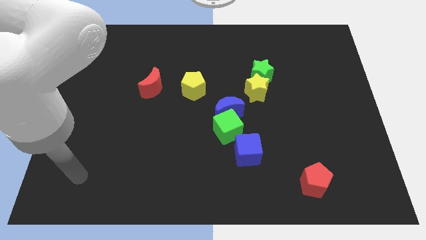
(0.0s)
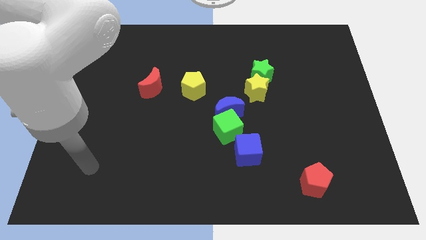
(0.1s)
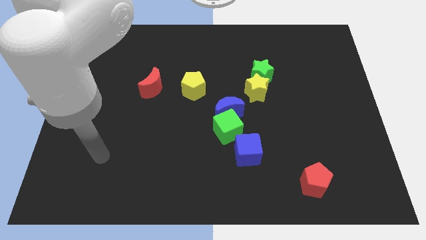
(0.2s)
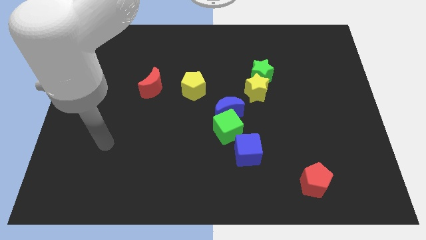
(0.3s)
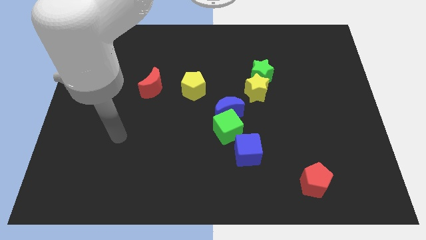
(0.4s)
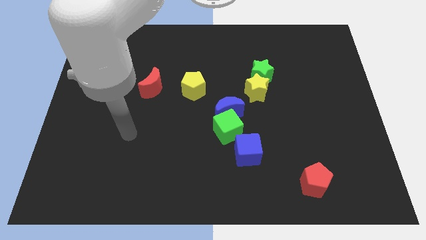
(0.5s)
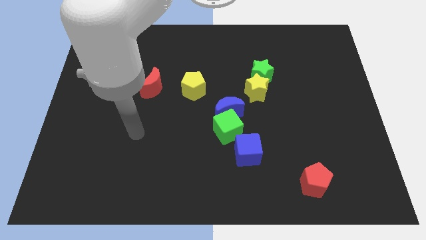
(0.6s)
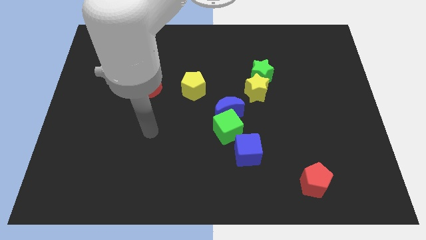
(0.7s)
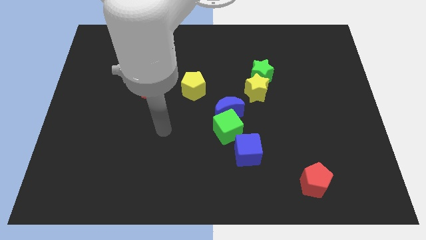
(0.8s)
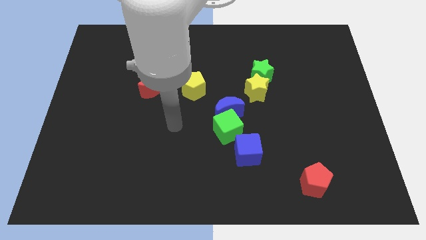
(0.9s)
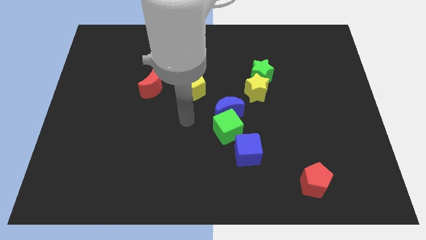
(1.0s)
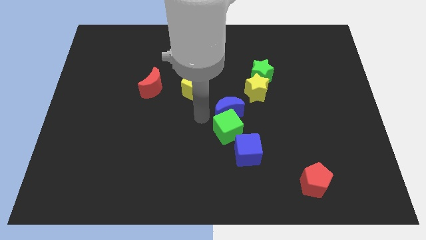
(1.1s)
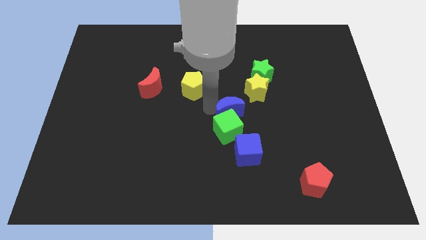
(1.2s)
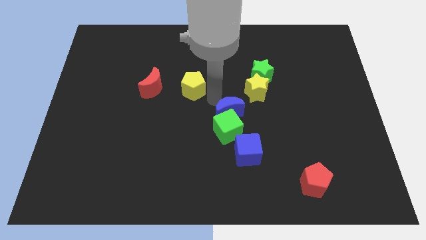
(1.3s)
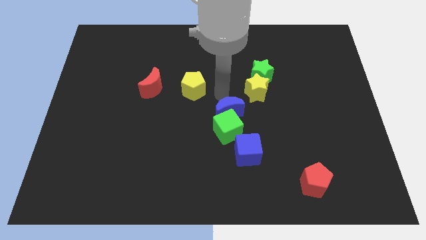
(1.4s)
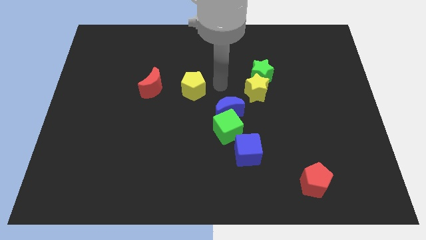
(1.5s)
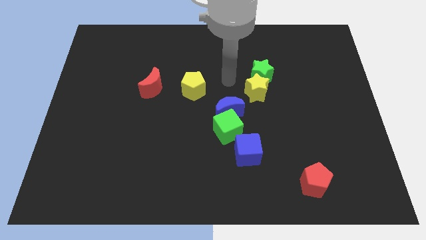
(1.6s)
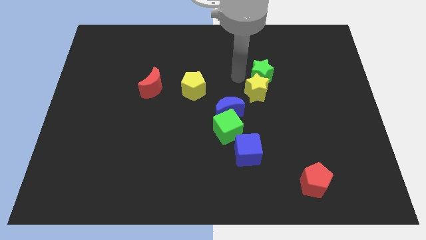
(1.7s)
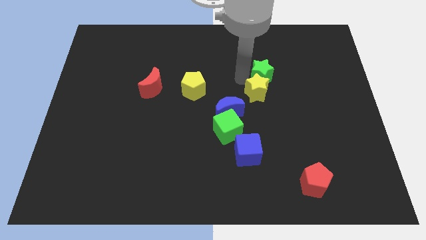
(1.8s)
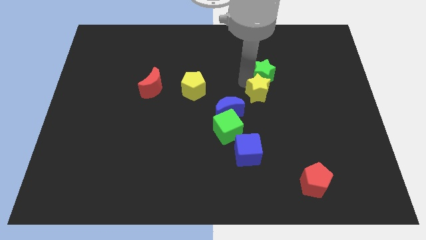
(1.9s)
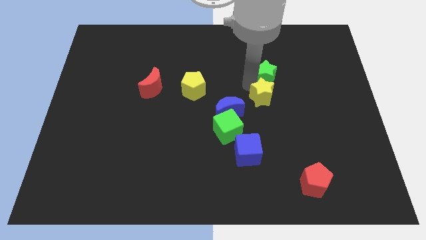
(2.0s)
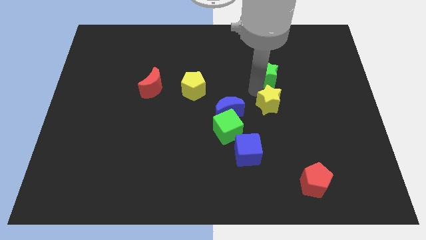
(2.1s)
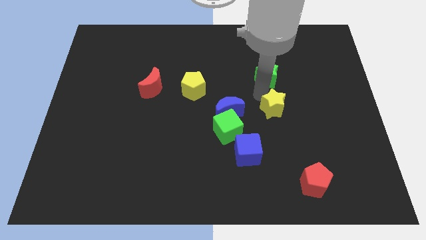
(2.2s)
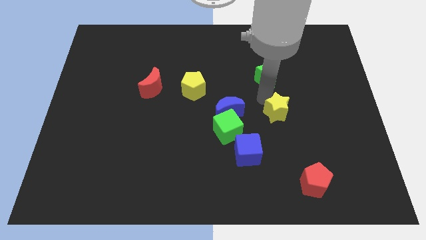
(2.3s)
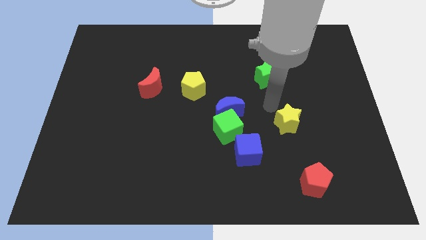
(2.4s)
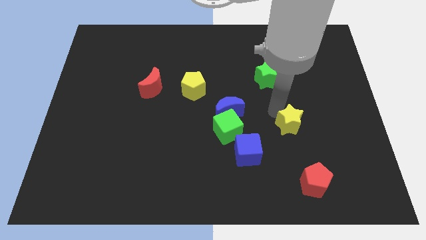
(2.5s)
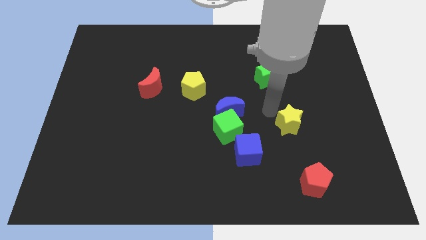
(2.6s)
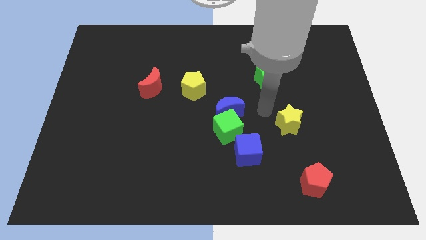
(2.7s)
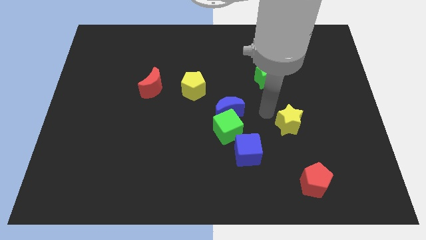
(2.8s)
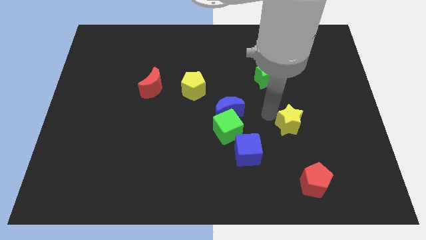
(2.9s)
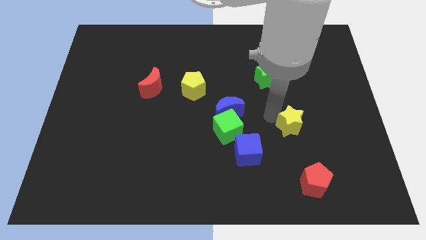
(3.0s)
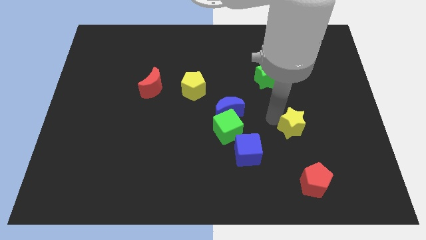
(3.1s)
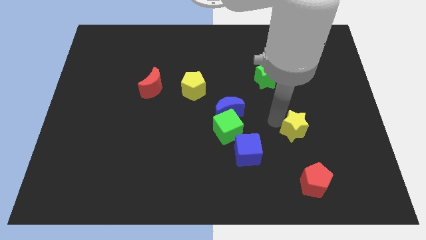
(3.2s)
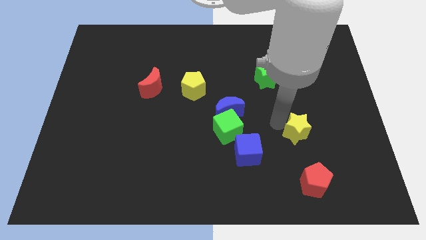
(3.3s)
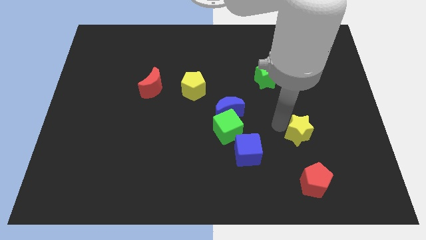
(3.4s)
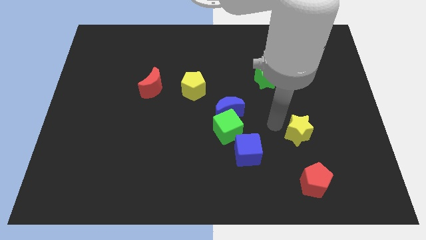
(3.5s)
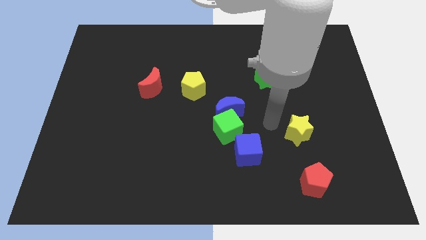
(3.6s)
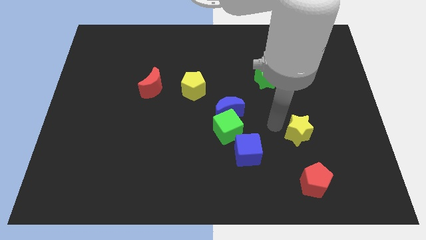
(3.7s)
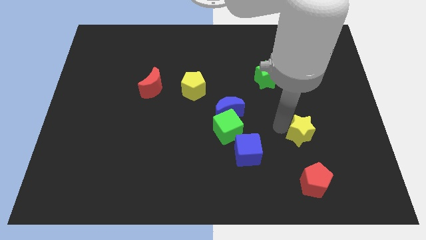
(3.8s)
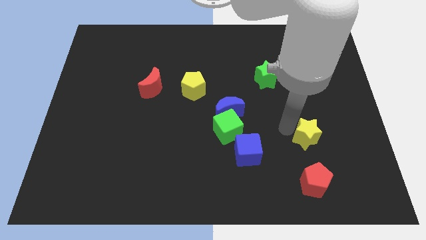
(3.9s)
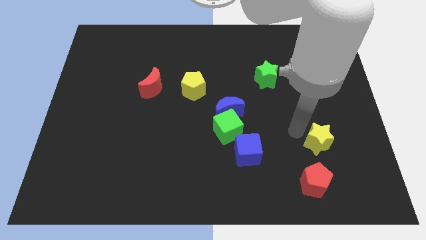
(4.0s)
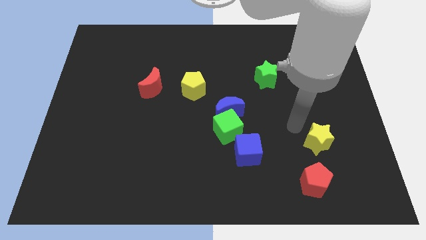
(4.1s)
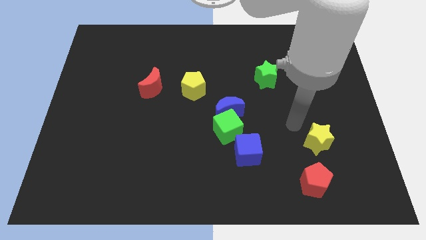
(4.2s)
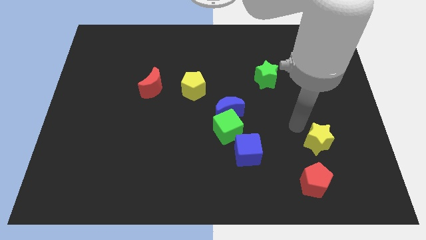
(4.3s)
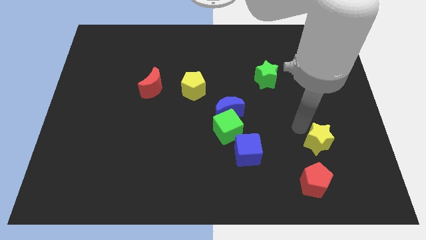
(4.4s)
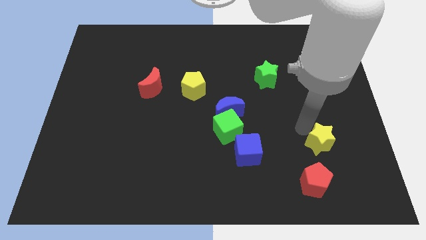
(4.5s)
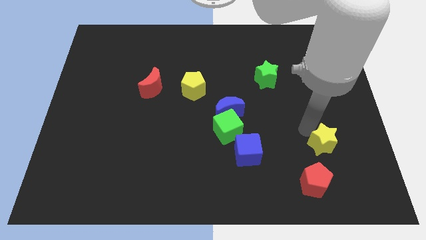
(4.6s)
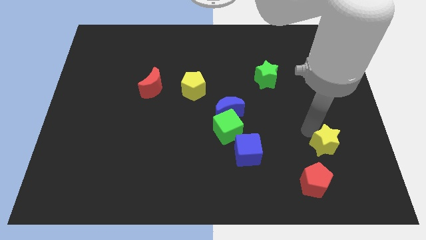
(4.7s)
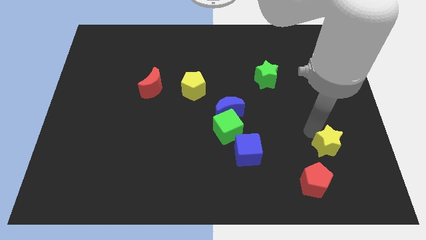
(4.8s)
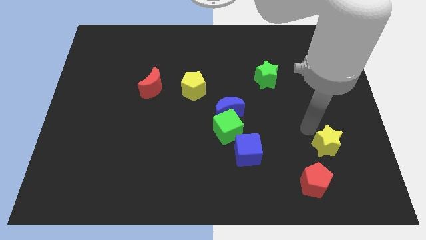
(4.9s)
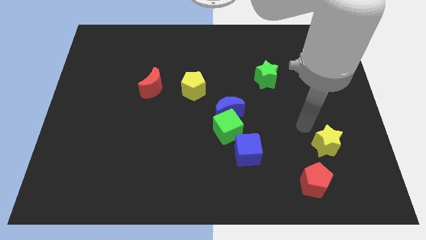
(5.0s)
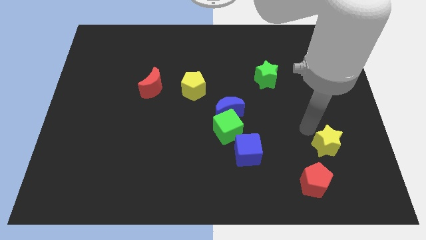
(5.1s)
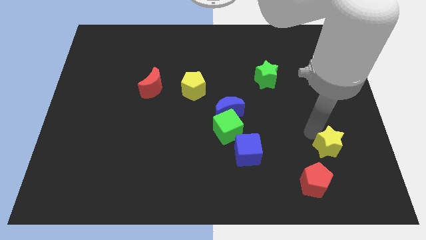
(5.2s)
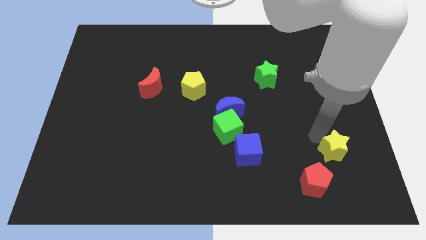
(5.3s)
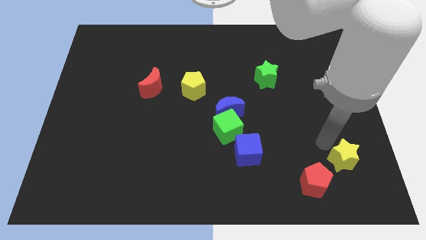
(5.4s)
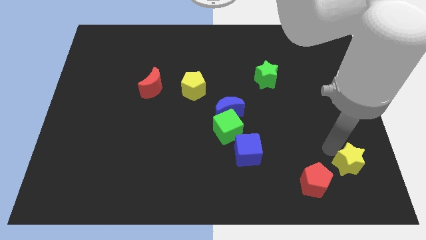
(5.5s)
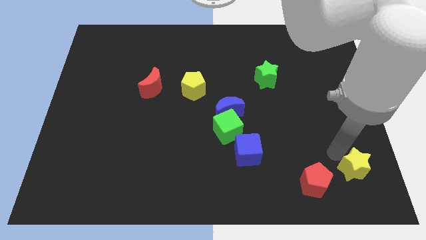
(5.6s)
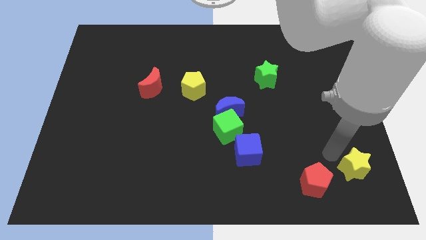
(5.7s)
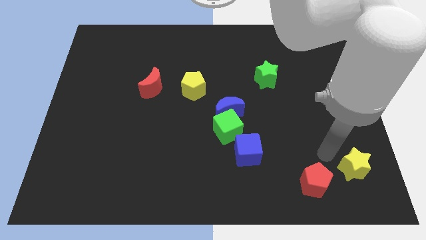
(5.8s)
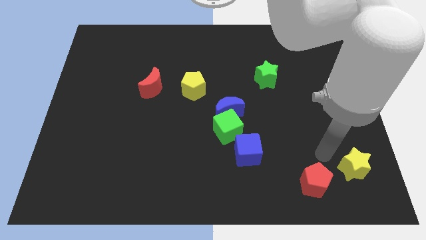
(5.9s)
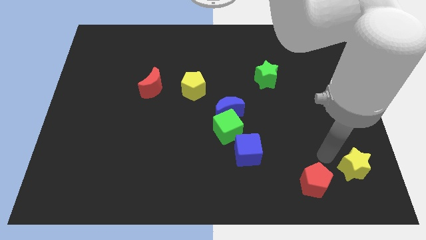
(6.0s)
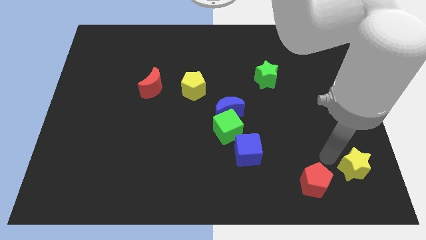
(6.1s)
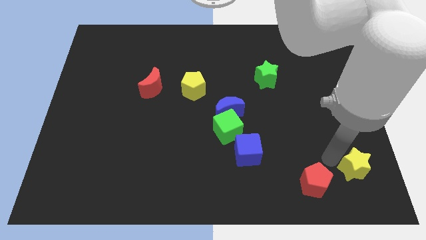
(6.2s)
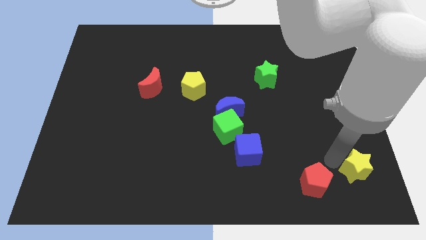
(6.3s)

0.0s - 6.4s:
move the yellow star to the bottom right corner

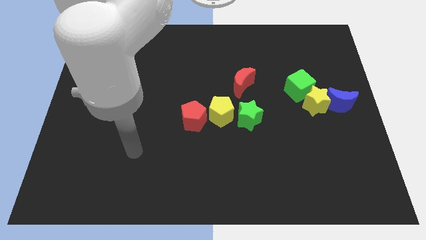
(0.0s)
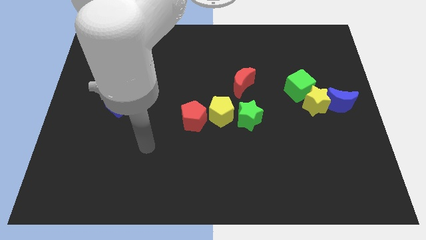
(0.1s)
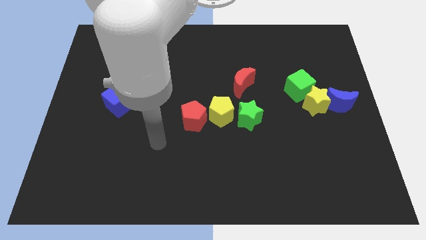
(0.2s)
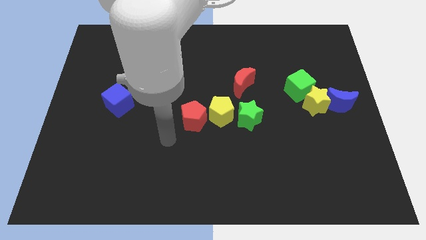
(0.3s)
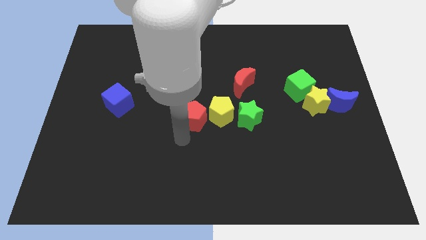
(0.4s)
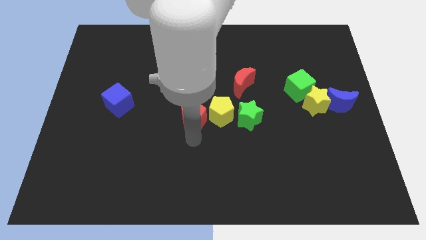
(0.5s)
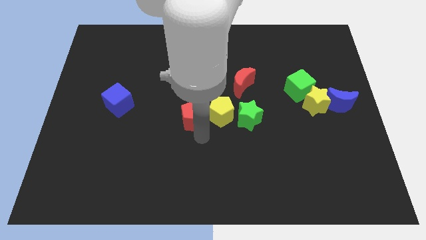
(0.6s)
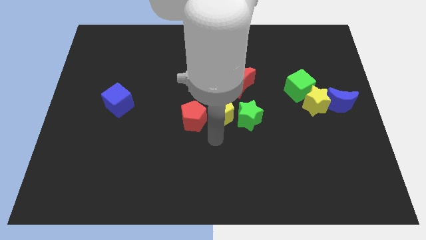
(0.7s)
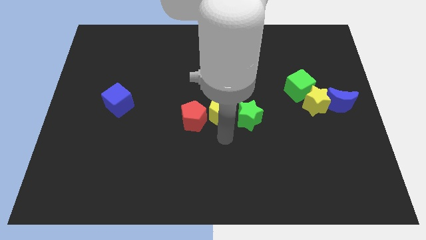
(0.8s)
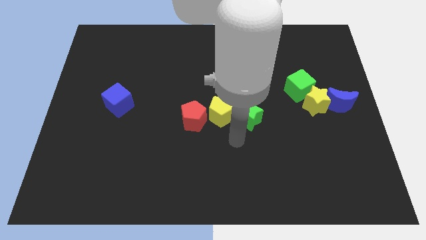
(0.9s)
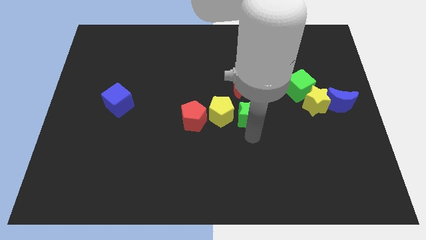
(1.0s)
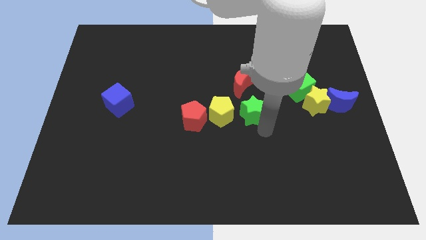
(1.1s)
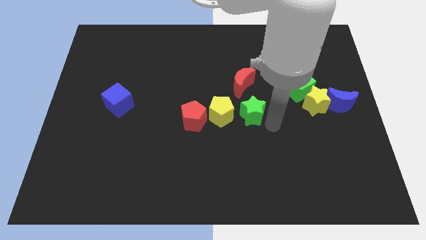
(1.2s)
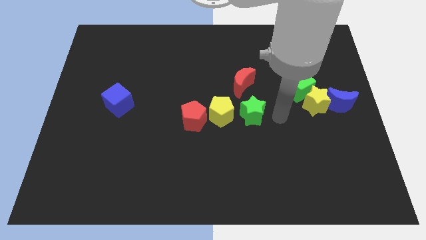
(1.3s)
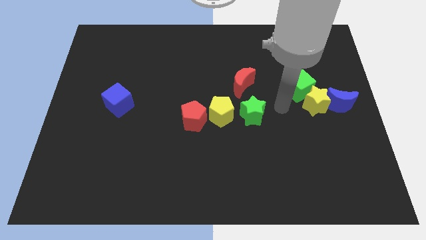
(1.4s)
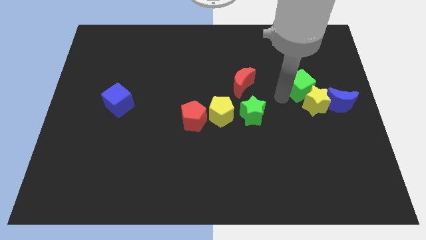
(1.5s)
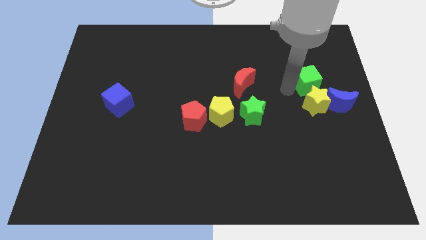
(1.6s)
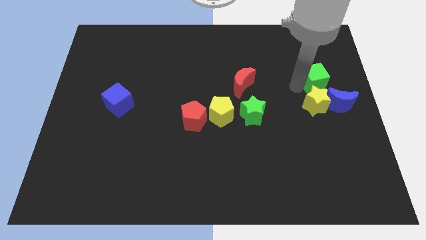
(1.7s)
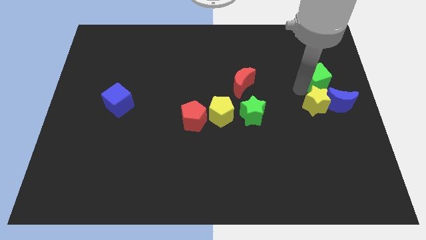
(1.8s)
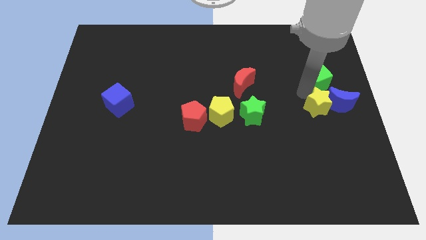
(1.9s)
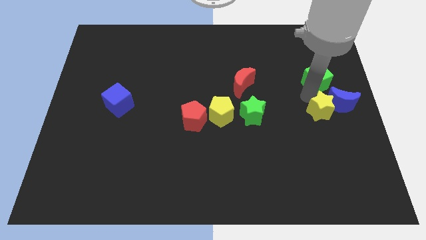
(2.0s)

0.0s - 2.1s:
move the yellow star to the right side of the board
